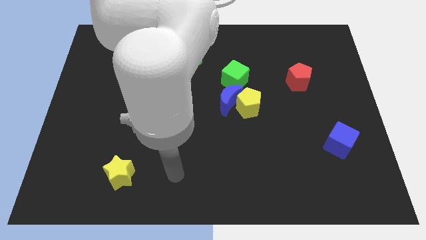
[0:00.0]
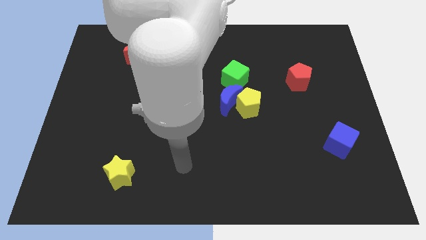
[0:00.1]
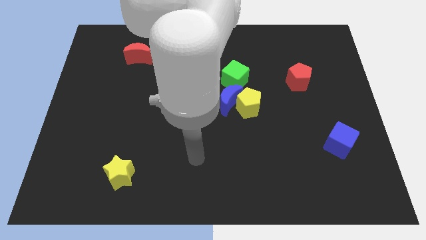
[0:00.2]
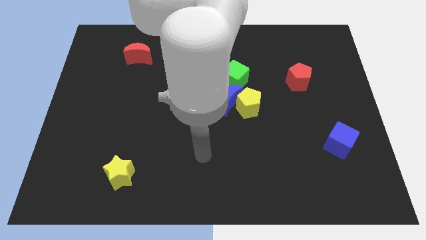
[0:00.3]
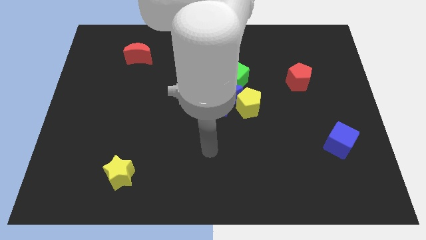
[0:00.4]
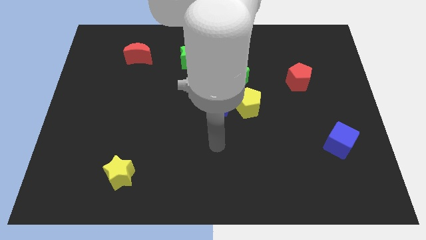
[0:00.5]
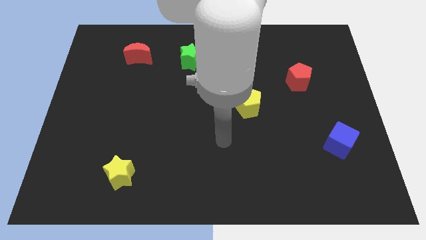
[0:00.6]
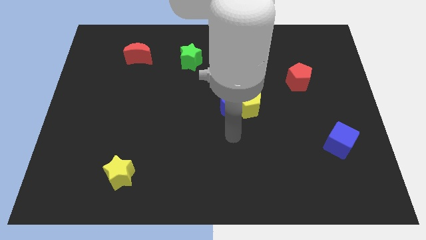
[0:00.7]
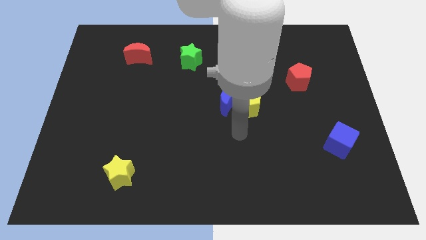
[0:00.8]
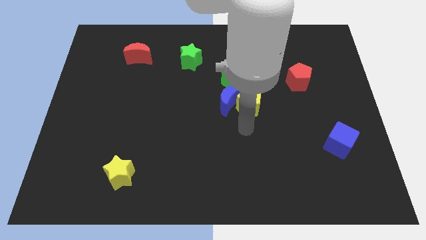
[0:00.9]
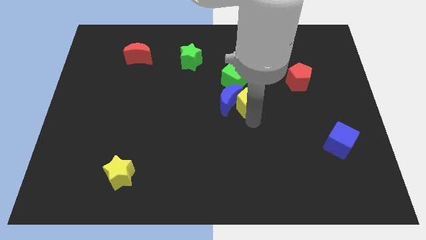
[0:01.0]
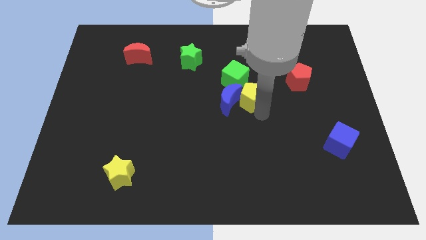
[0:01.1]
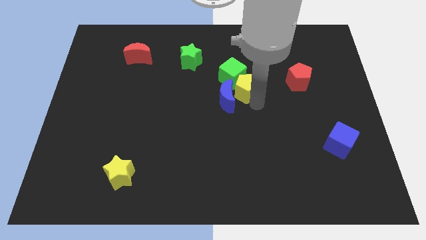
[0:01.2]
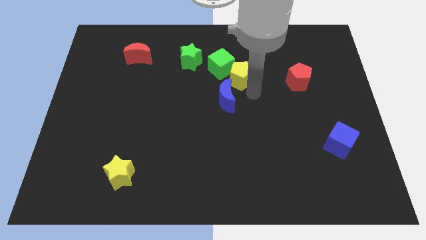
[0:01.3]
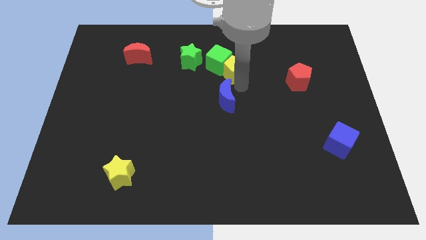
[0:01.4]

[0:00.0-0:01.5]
move the blue moon away from the yellow pentagon and green cube

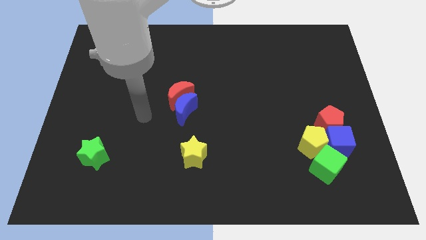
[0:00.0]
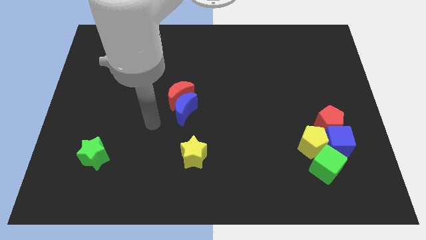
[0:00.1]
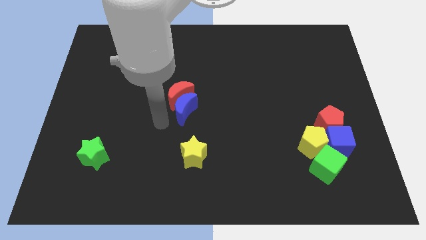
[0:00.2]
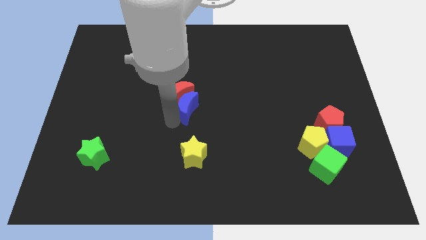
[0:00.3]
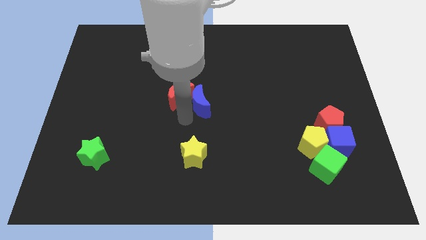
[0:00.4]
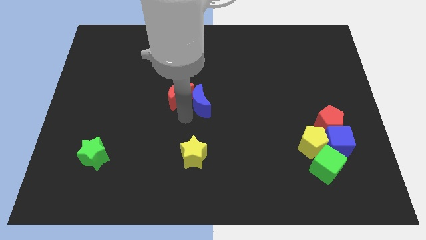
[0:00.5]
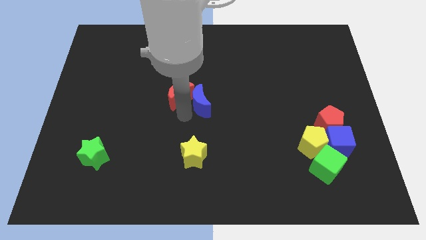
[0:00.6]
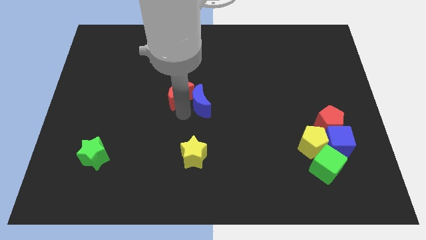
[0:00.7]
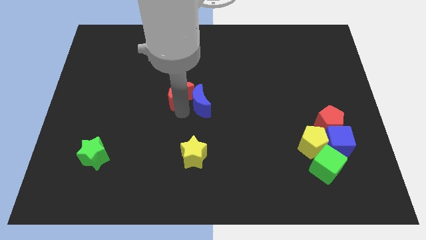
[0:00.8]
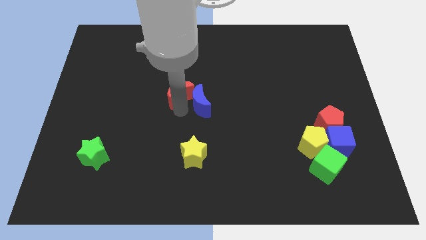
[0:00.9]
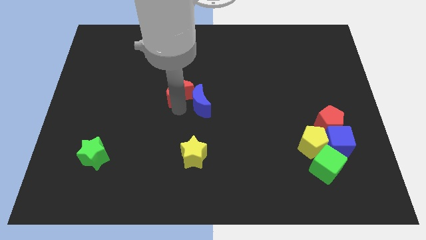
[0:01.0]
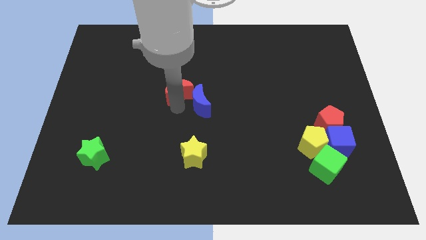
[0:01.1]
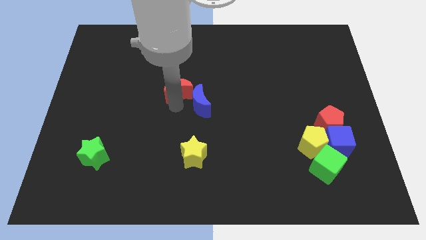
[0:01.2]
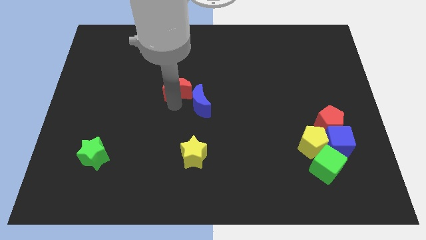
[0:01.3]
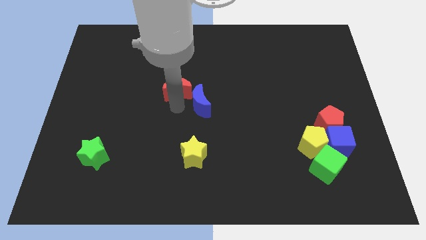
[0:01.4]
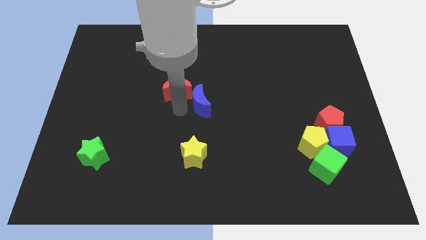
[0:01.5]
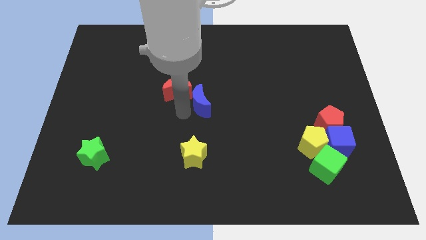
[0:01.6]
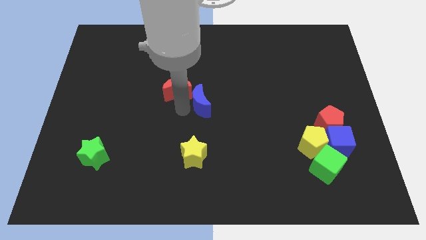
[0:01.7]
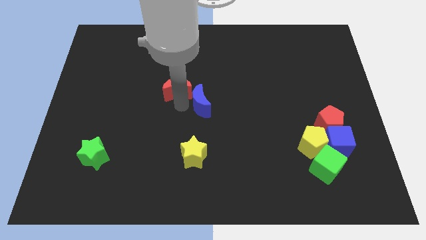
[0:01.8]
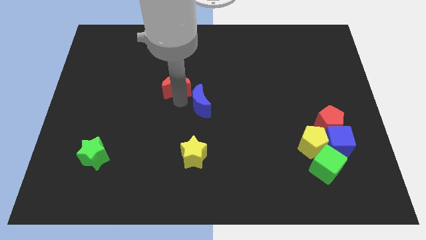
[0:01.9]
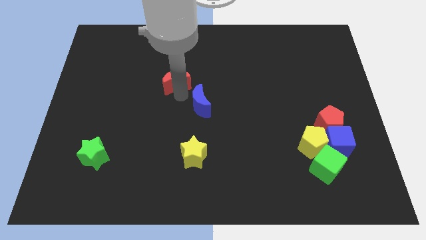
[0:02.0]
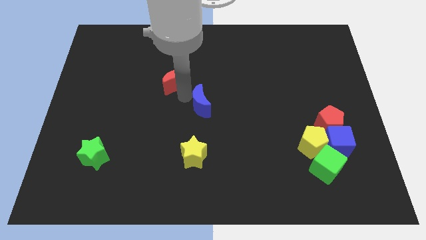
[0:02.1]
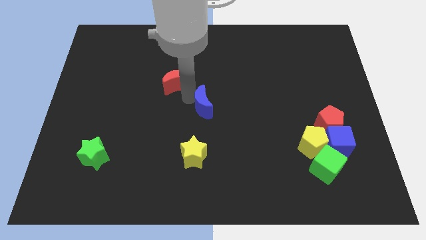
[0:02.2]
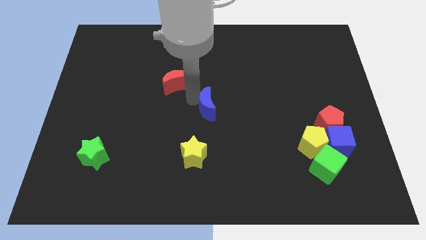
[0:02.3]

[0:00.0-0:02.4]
move the red moon away from the blue moon

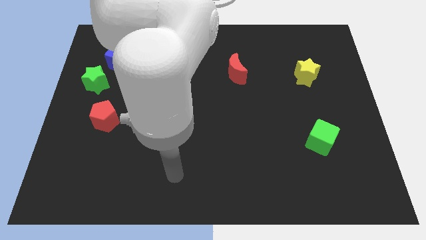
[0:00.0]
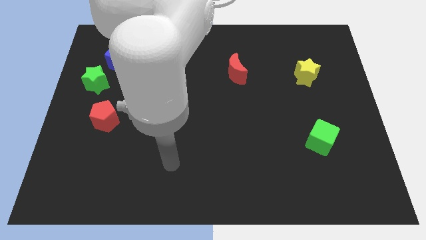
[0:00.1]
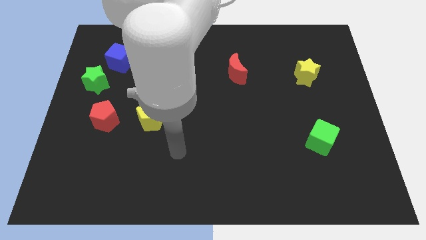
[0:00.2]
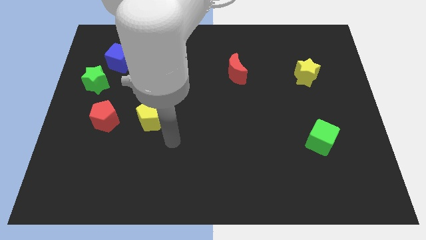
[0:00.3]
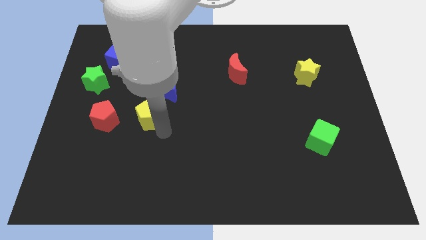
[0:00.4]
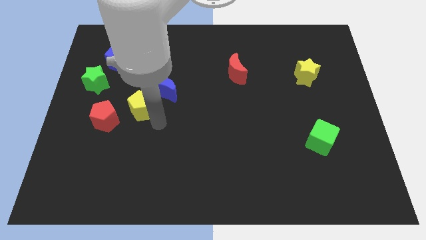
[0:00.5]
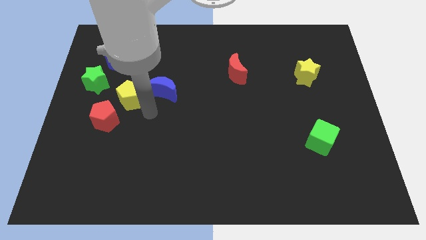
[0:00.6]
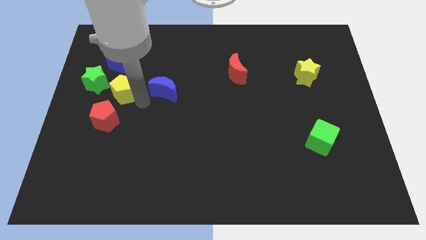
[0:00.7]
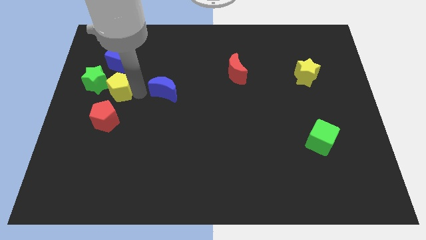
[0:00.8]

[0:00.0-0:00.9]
separate the blue moon from the yellow pentagon

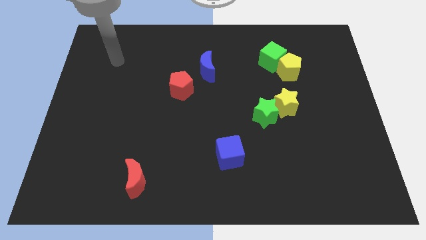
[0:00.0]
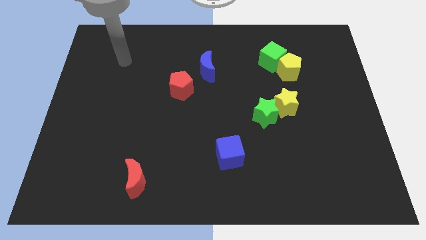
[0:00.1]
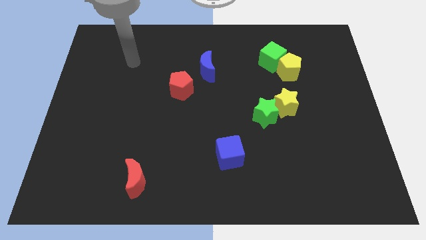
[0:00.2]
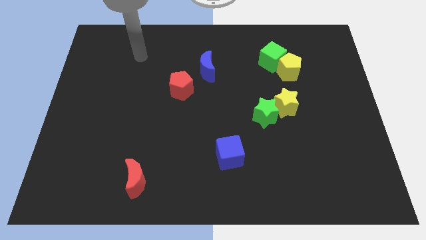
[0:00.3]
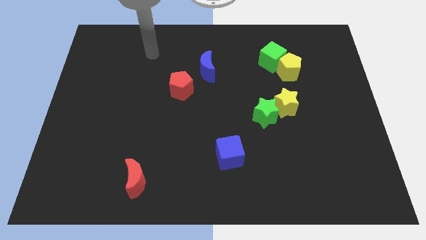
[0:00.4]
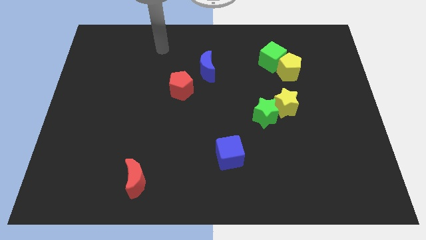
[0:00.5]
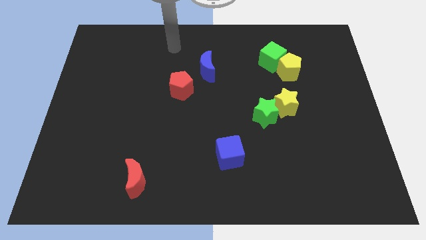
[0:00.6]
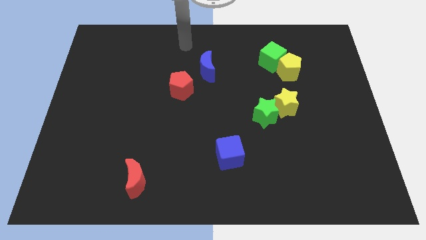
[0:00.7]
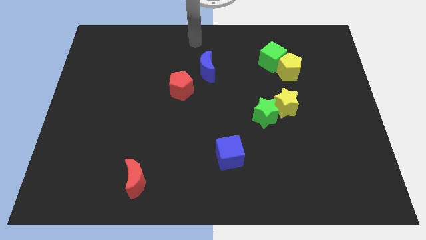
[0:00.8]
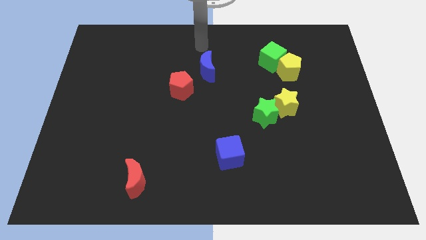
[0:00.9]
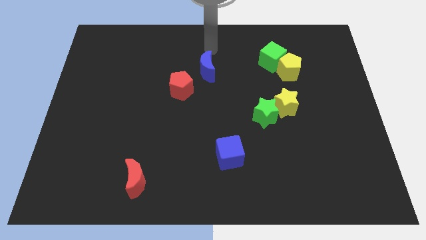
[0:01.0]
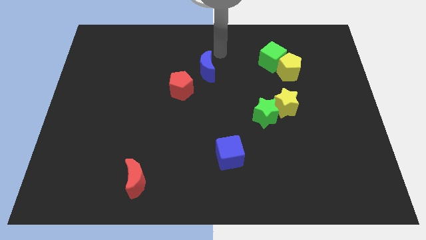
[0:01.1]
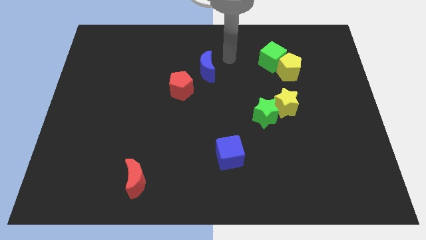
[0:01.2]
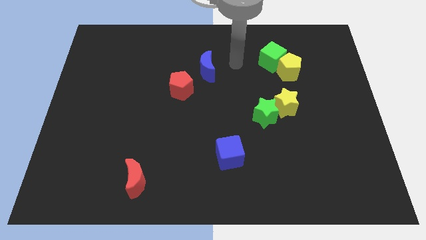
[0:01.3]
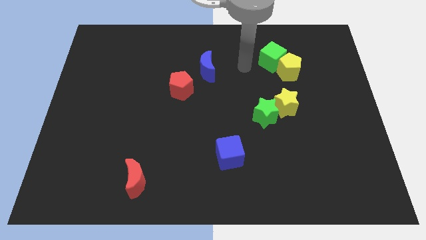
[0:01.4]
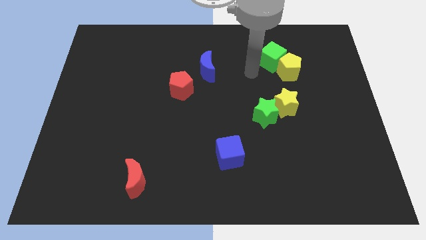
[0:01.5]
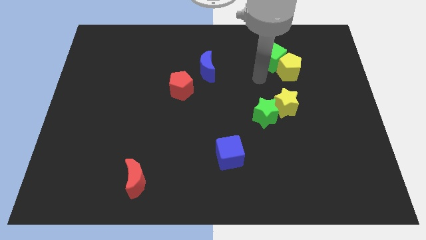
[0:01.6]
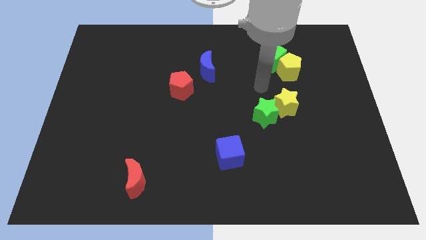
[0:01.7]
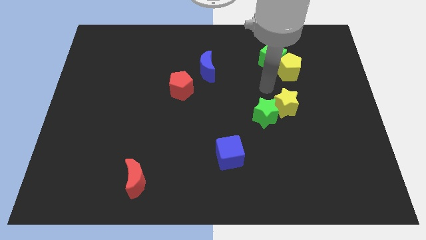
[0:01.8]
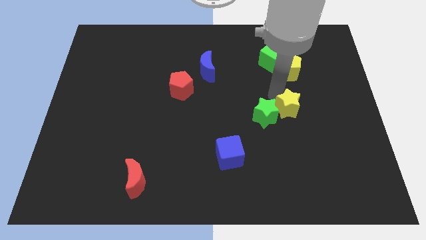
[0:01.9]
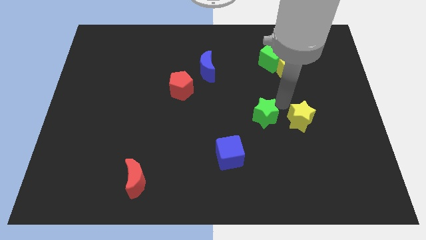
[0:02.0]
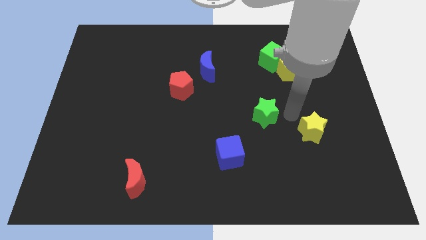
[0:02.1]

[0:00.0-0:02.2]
pull the green star apart from the yellow star

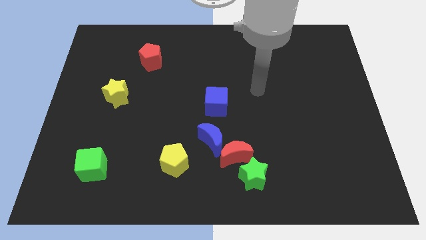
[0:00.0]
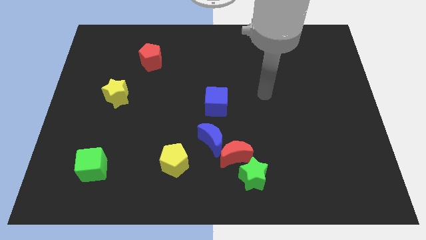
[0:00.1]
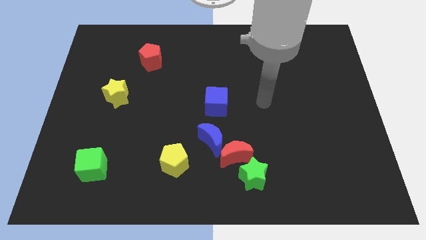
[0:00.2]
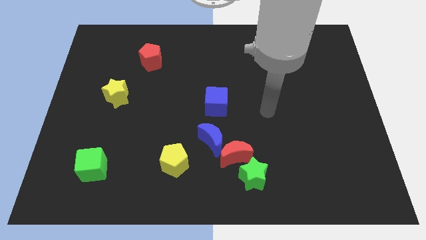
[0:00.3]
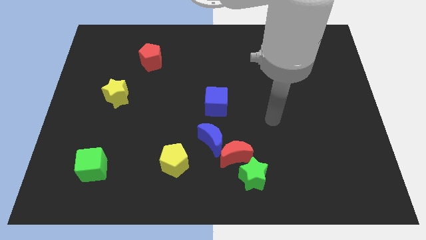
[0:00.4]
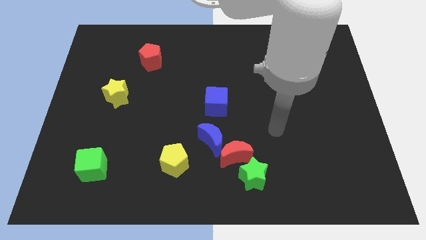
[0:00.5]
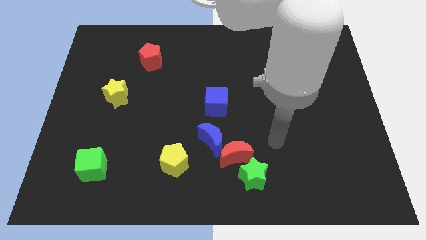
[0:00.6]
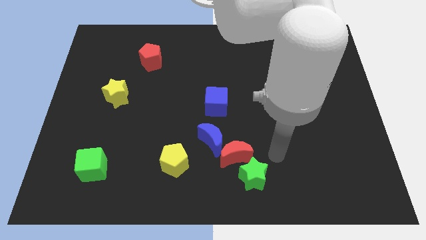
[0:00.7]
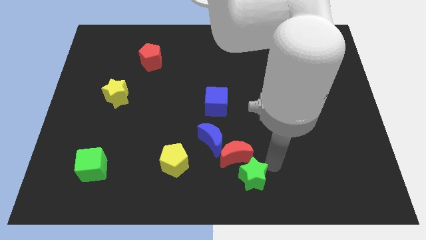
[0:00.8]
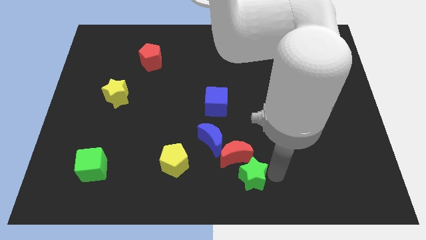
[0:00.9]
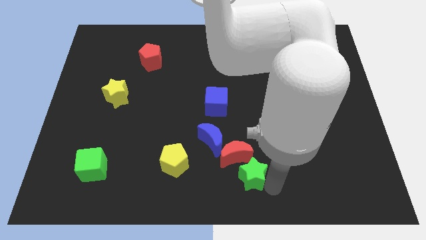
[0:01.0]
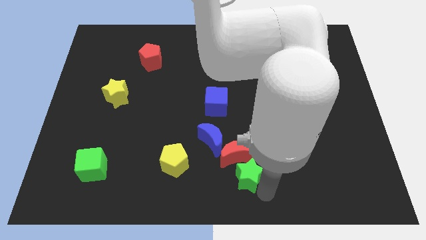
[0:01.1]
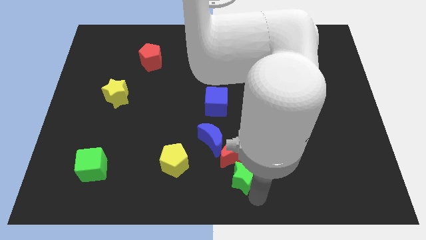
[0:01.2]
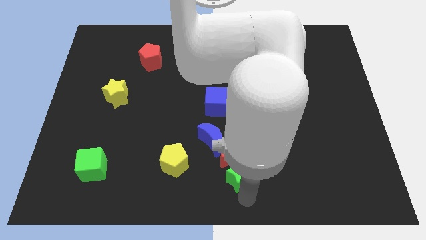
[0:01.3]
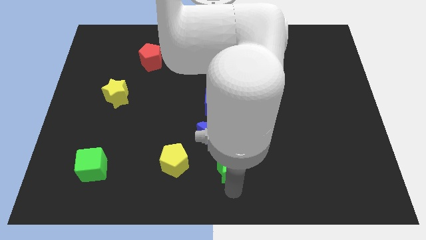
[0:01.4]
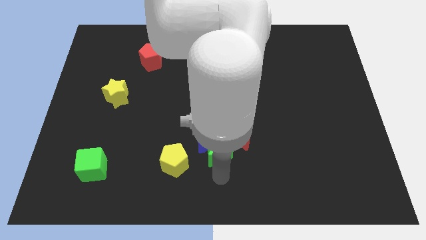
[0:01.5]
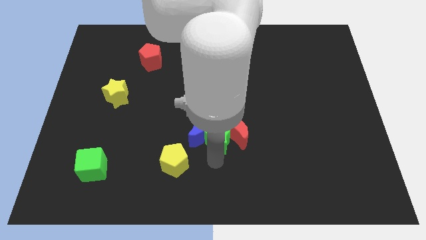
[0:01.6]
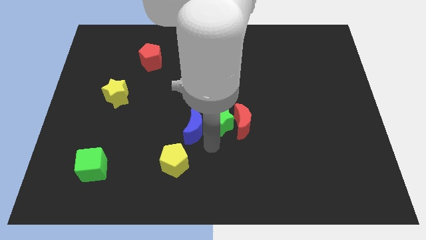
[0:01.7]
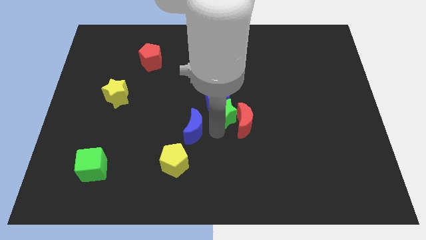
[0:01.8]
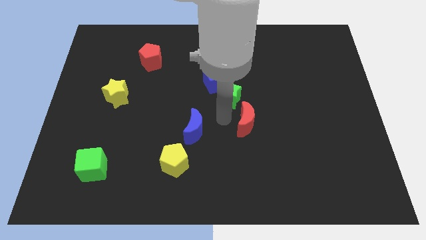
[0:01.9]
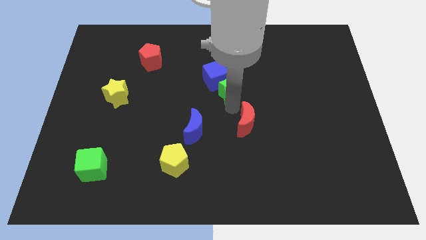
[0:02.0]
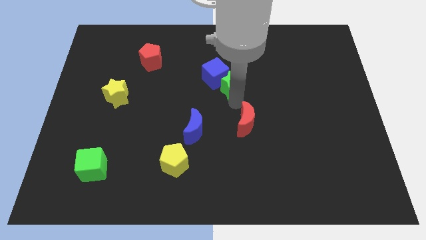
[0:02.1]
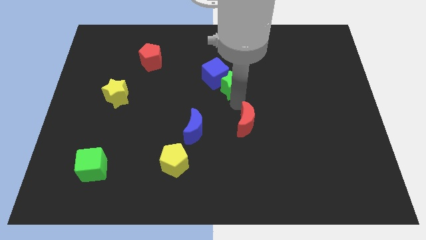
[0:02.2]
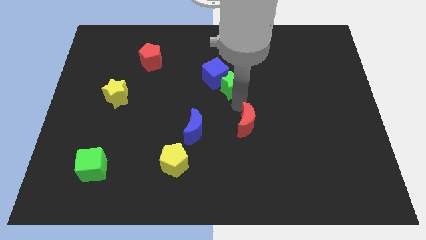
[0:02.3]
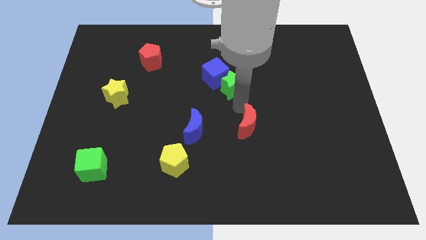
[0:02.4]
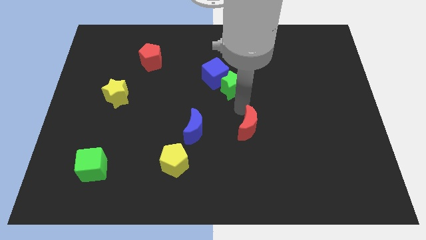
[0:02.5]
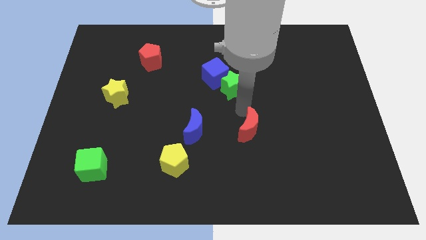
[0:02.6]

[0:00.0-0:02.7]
pull the red moon apart from the blue moon and green star
